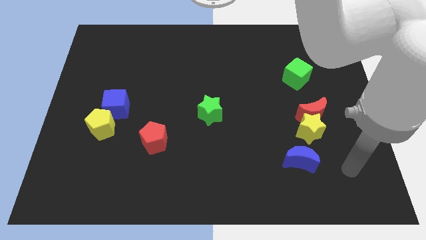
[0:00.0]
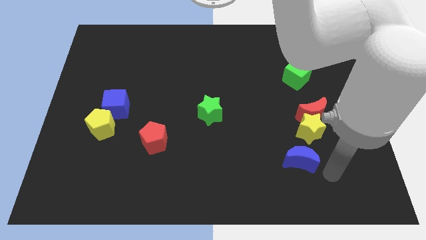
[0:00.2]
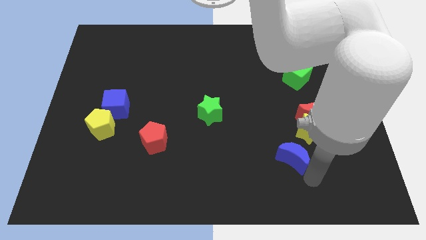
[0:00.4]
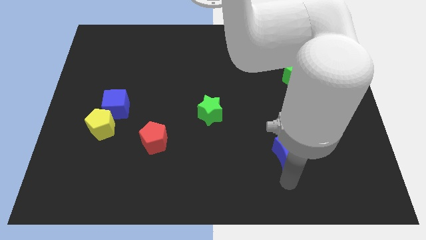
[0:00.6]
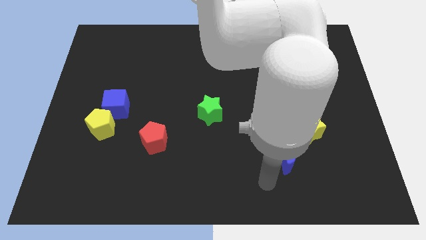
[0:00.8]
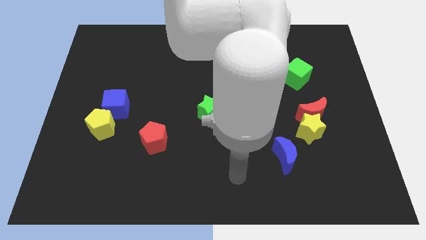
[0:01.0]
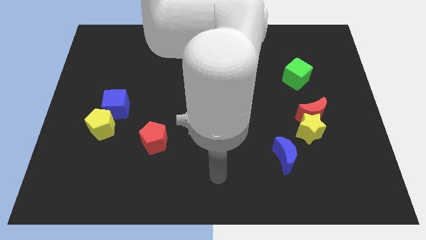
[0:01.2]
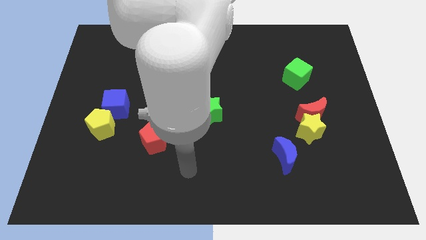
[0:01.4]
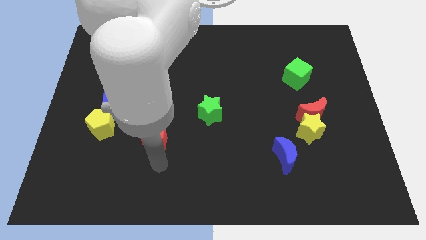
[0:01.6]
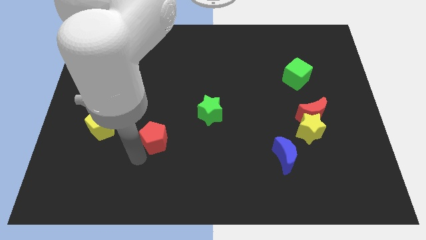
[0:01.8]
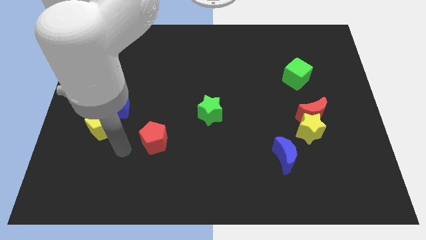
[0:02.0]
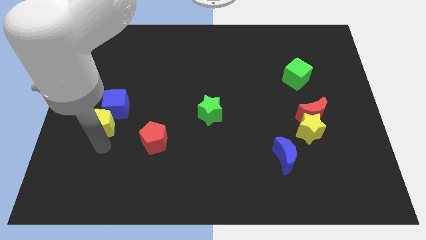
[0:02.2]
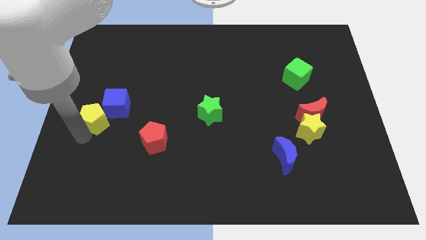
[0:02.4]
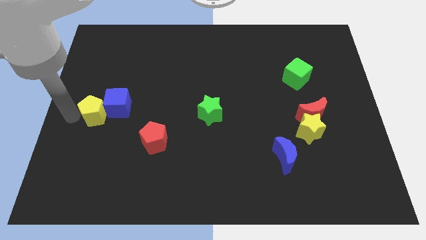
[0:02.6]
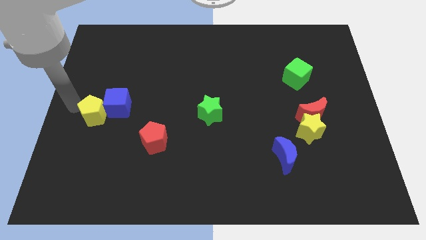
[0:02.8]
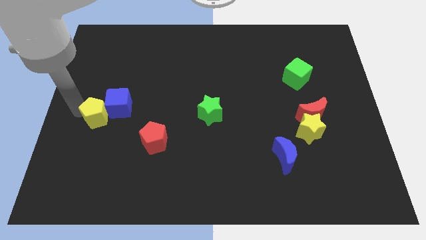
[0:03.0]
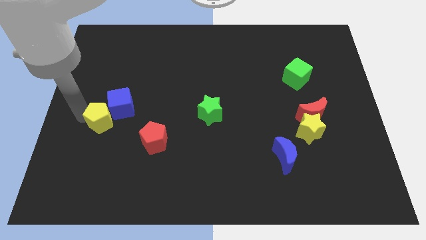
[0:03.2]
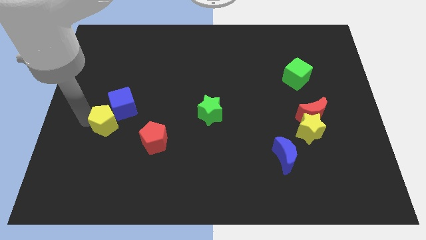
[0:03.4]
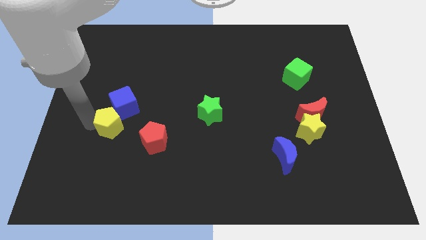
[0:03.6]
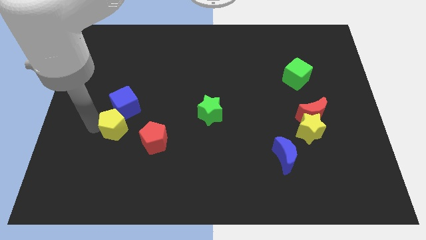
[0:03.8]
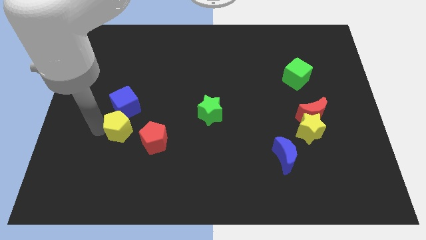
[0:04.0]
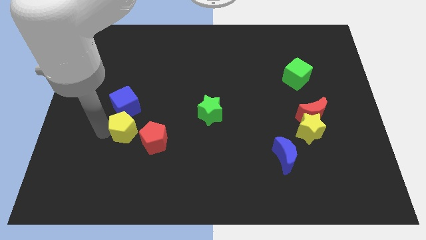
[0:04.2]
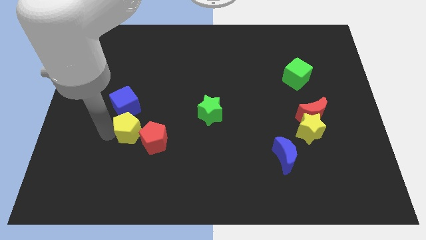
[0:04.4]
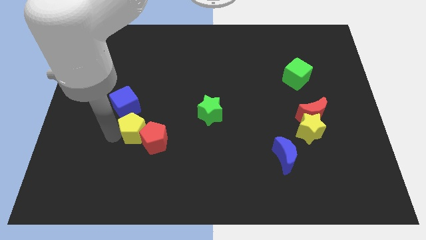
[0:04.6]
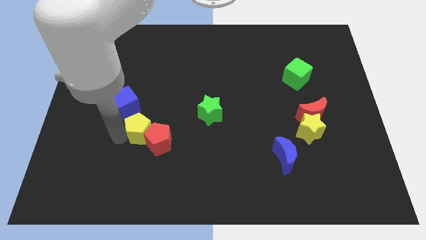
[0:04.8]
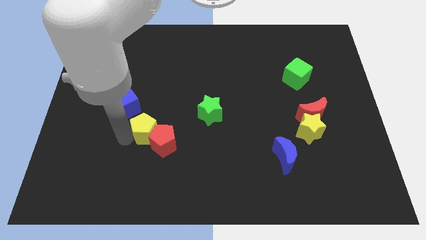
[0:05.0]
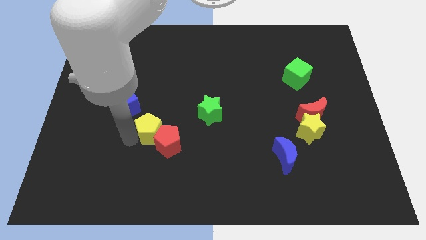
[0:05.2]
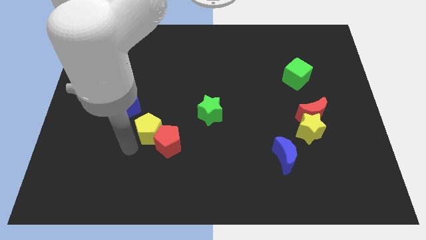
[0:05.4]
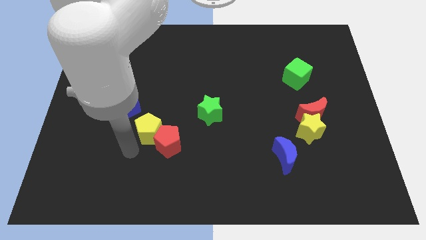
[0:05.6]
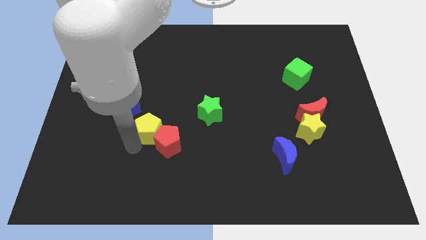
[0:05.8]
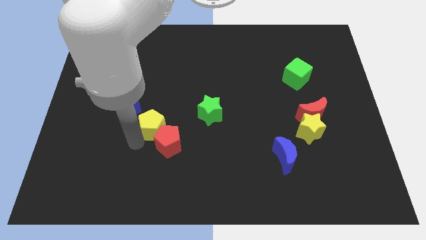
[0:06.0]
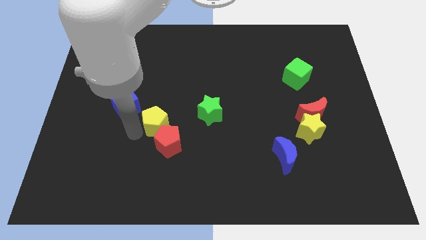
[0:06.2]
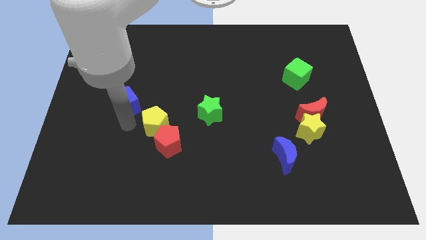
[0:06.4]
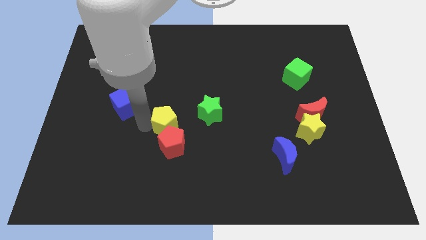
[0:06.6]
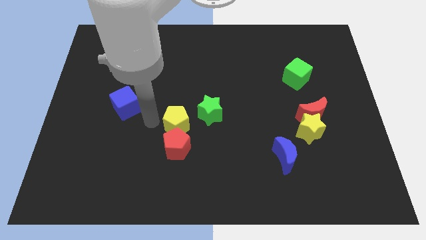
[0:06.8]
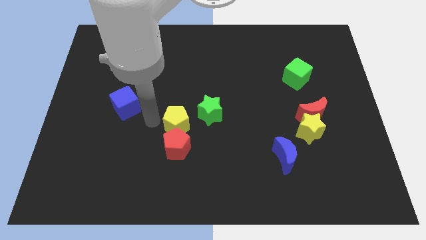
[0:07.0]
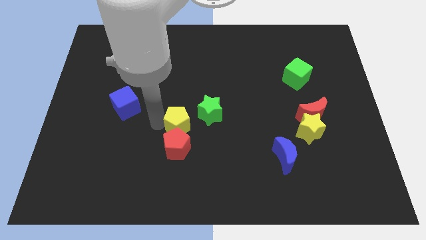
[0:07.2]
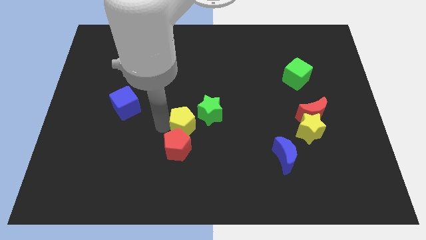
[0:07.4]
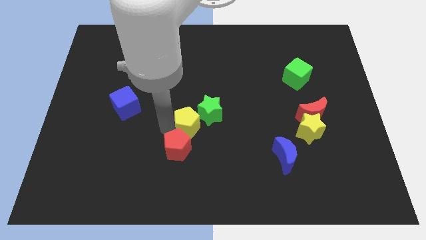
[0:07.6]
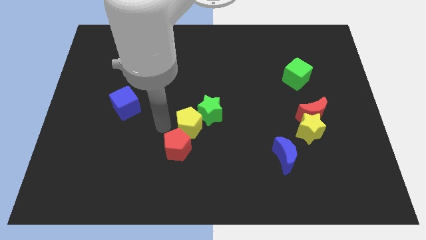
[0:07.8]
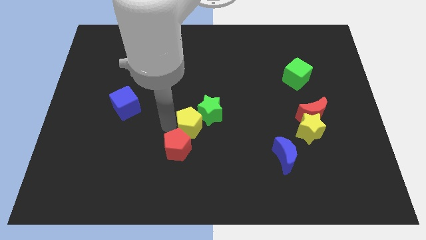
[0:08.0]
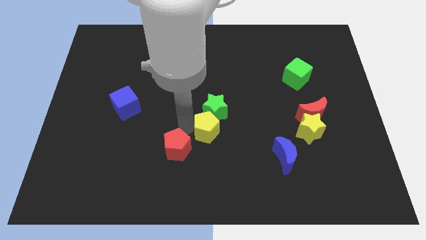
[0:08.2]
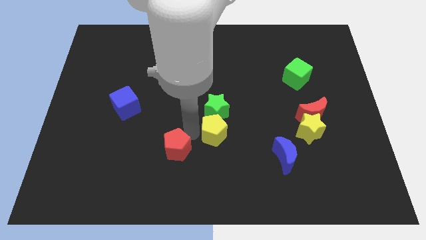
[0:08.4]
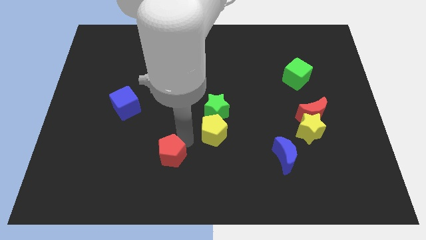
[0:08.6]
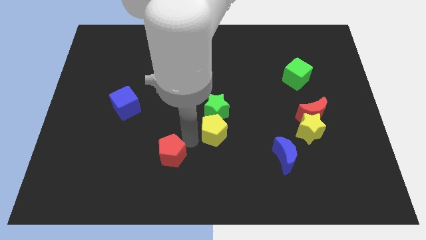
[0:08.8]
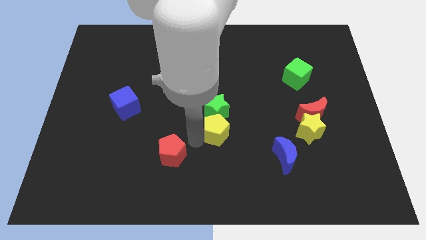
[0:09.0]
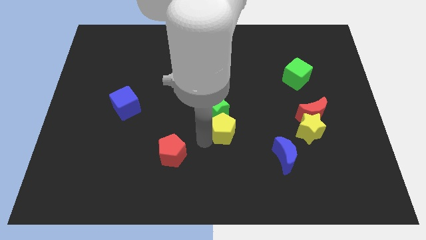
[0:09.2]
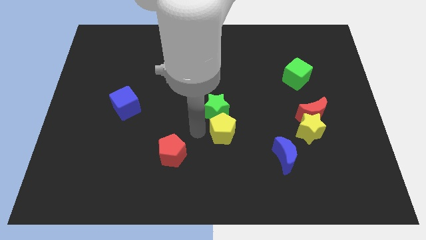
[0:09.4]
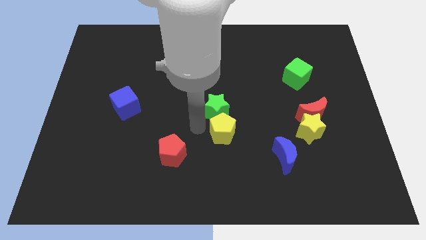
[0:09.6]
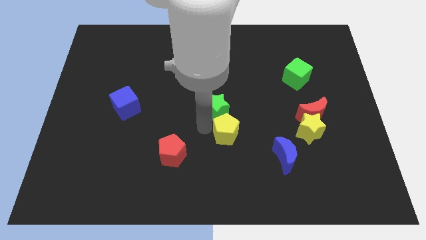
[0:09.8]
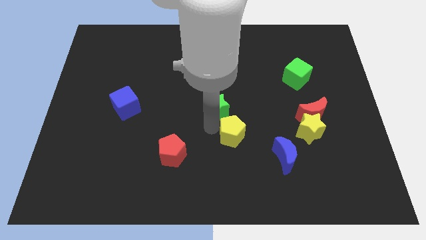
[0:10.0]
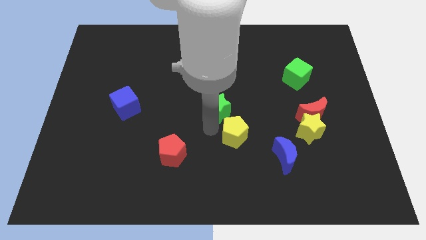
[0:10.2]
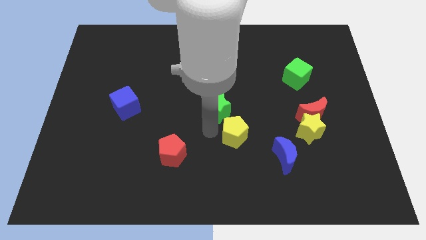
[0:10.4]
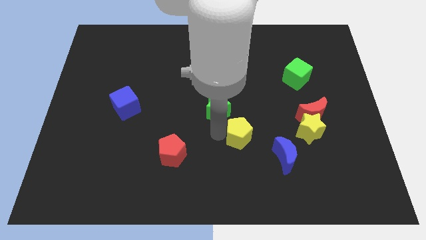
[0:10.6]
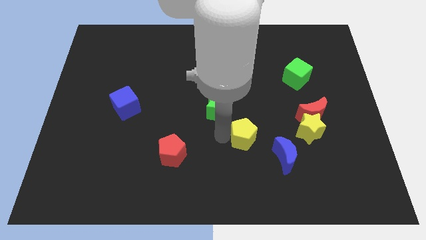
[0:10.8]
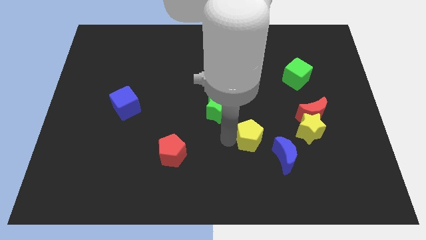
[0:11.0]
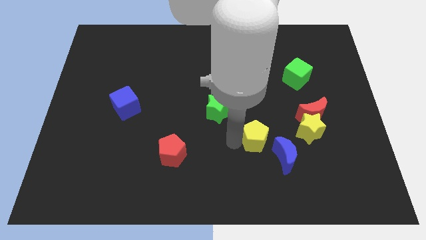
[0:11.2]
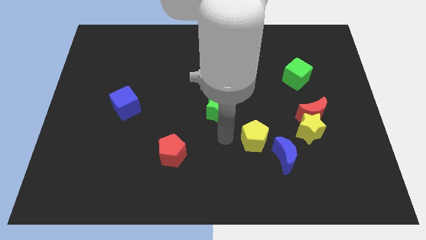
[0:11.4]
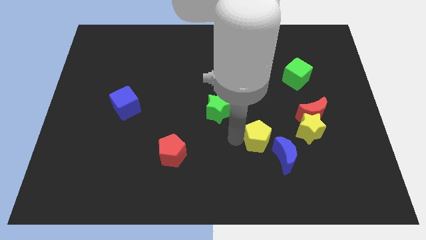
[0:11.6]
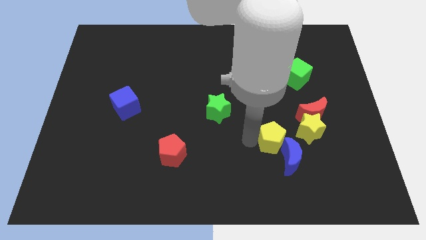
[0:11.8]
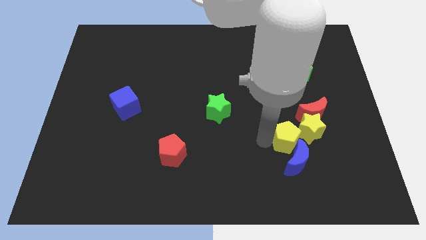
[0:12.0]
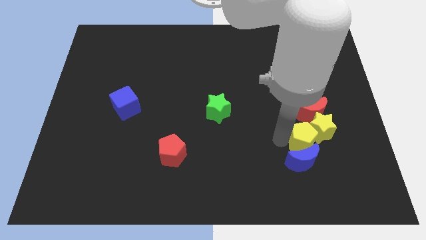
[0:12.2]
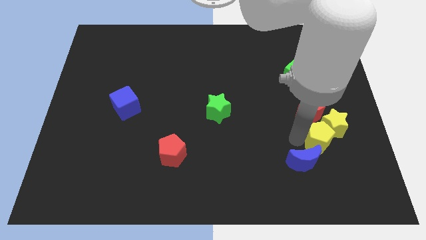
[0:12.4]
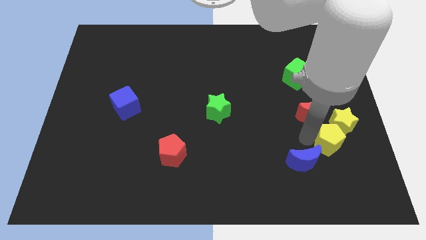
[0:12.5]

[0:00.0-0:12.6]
slide the yellow pentagon just right of the blue moon

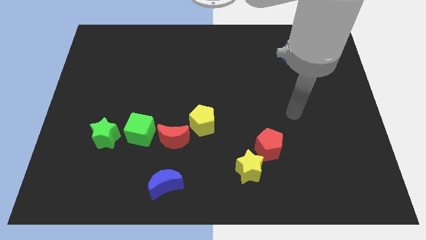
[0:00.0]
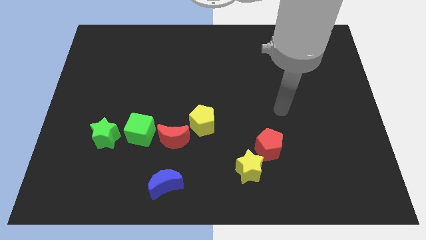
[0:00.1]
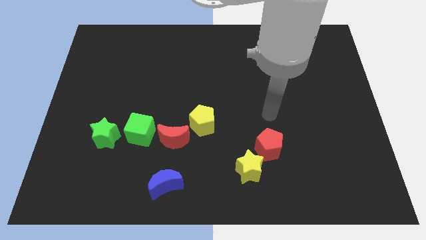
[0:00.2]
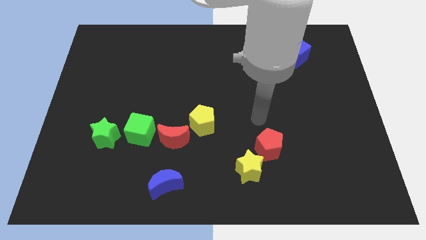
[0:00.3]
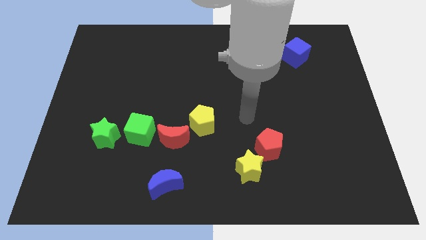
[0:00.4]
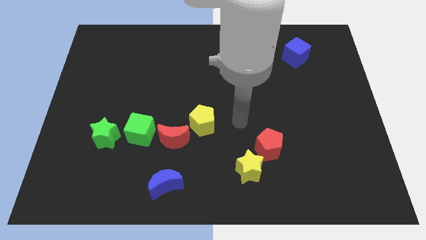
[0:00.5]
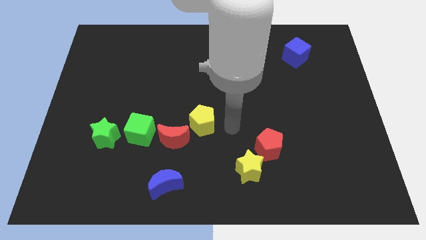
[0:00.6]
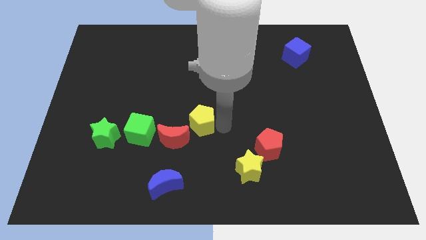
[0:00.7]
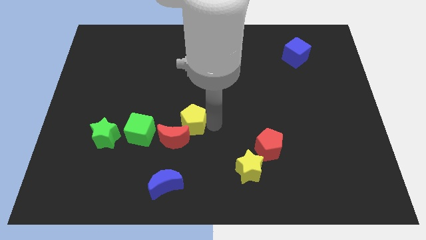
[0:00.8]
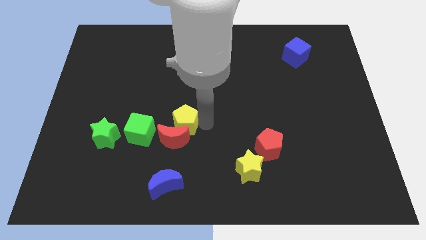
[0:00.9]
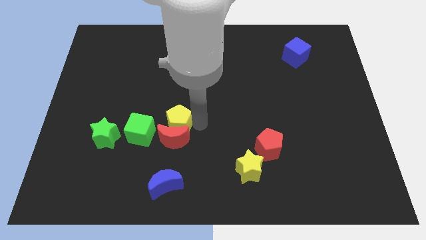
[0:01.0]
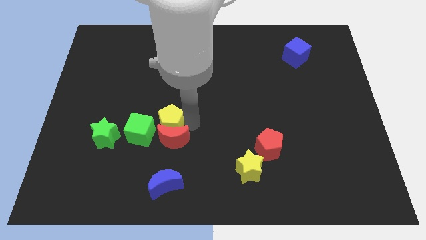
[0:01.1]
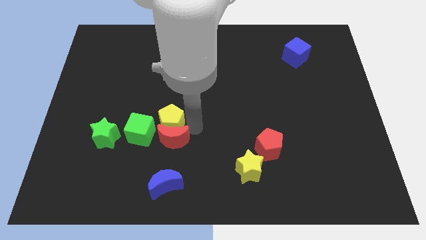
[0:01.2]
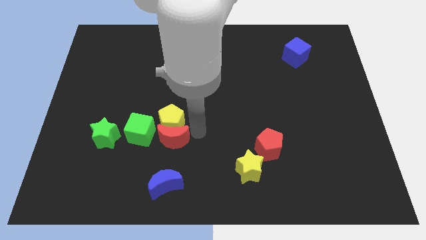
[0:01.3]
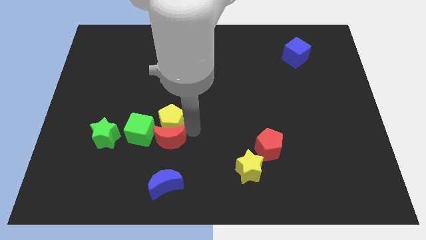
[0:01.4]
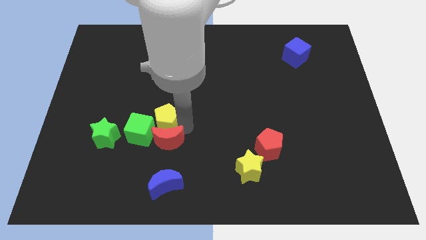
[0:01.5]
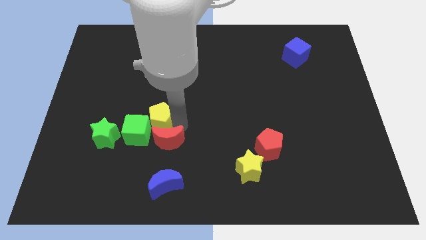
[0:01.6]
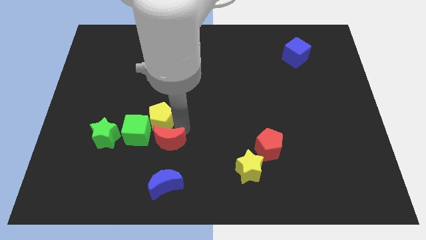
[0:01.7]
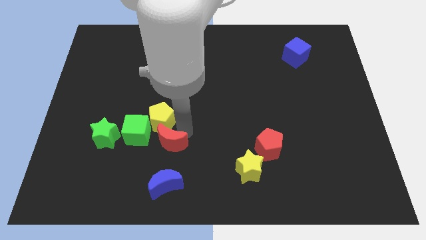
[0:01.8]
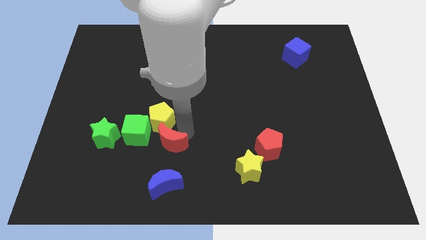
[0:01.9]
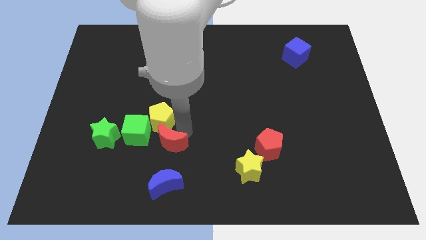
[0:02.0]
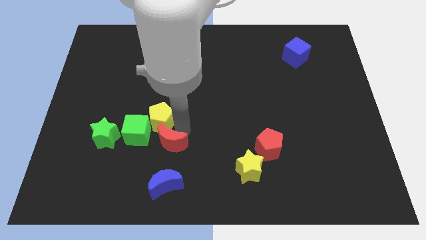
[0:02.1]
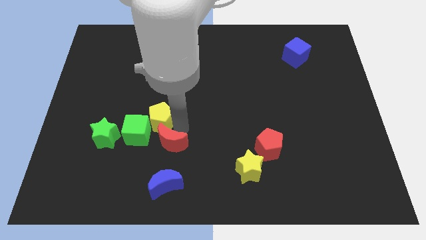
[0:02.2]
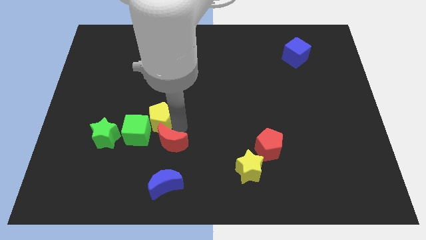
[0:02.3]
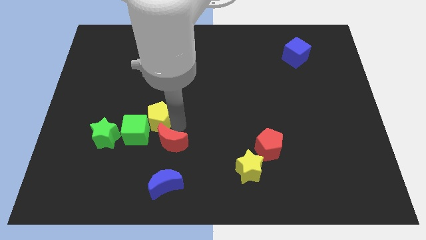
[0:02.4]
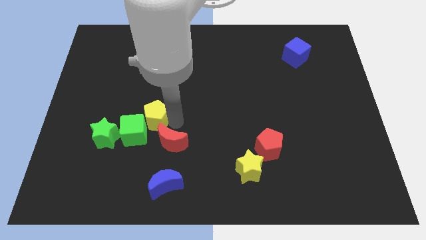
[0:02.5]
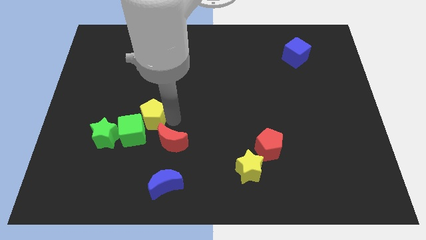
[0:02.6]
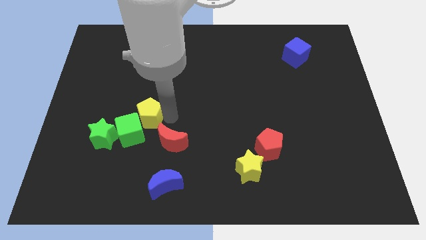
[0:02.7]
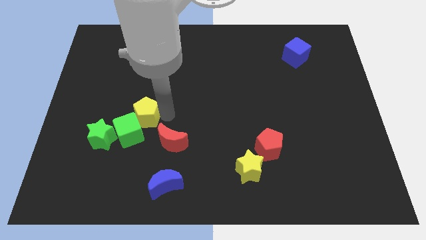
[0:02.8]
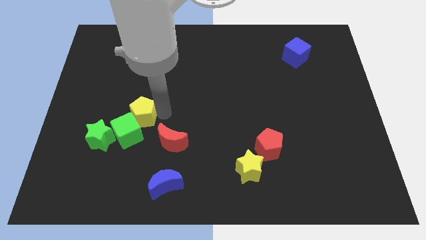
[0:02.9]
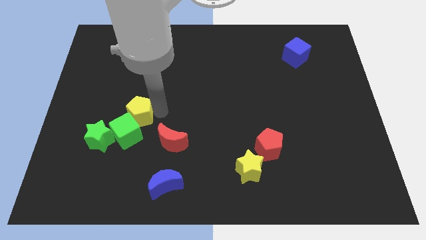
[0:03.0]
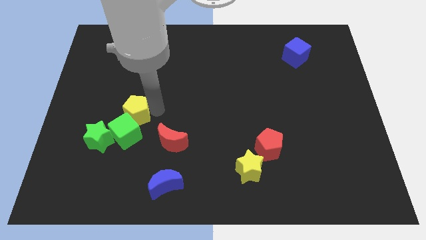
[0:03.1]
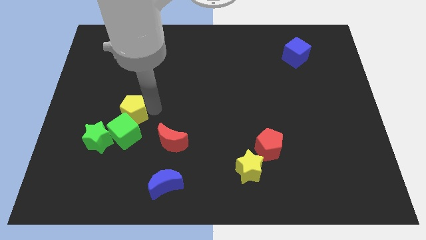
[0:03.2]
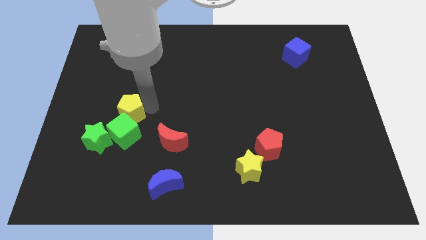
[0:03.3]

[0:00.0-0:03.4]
move the yellow pentagon to the top left of the green cube
